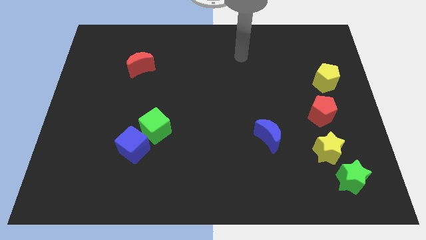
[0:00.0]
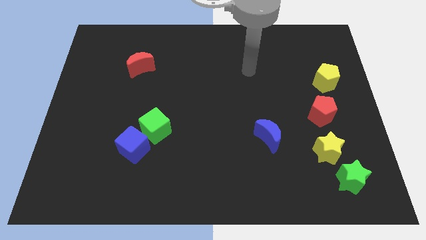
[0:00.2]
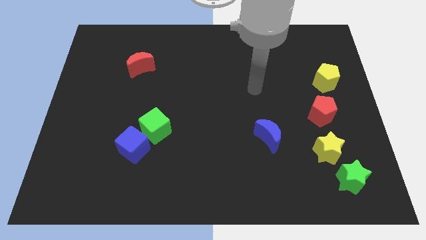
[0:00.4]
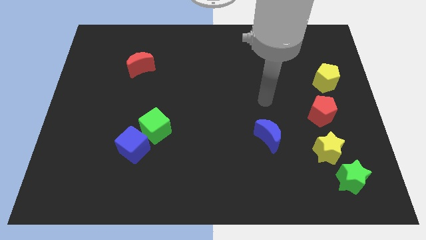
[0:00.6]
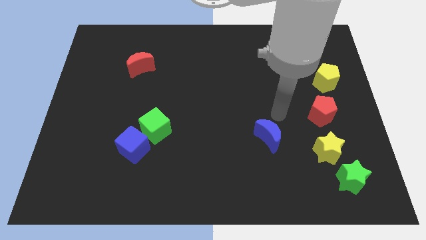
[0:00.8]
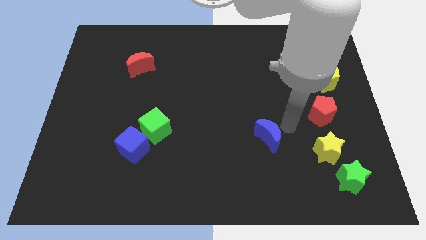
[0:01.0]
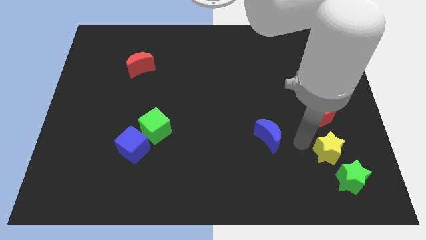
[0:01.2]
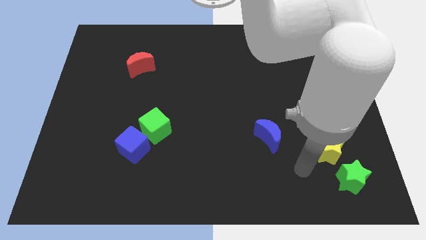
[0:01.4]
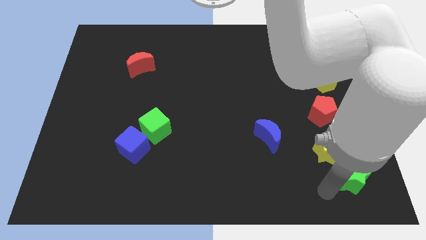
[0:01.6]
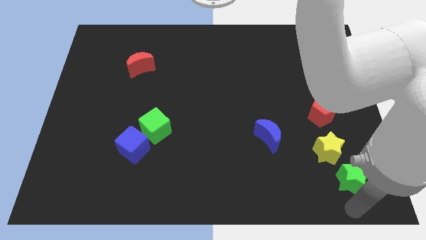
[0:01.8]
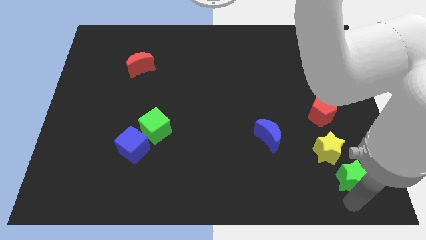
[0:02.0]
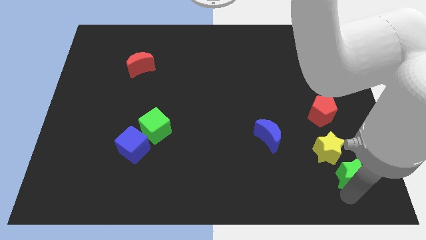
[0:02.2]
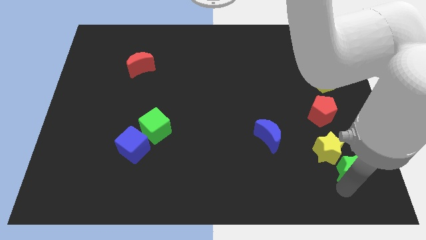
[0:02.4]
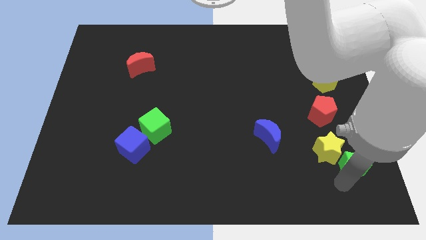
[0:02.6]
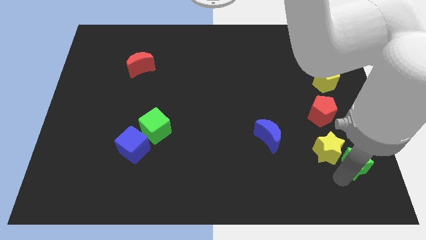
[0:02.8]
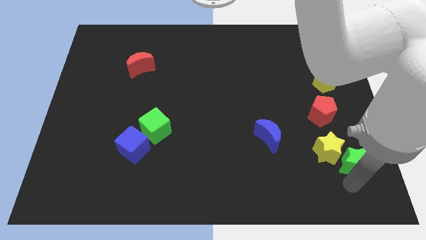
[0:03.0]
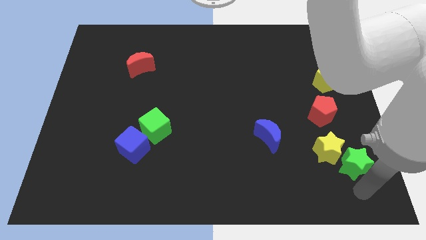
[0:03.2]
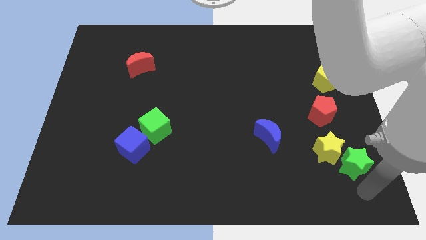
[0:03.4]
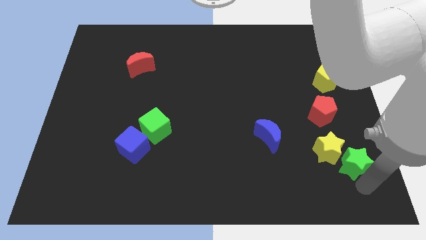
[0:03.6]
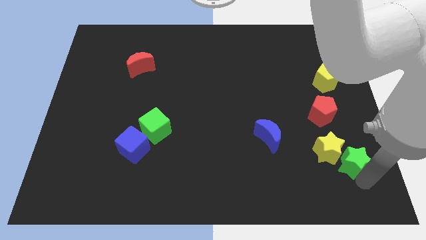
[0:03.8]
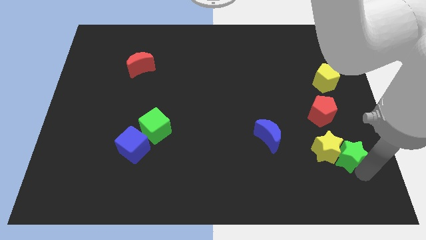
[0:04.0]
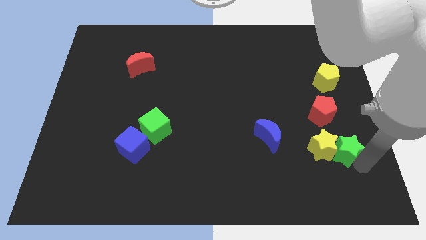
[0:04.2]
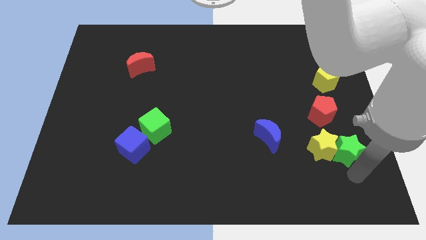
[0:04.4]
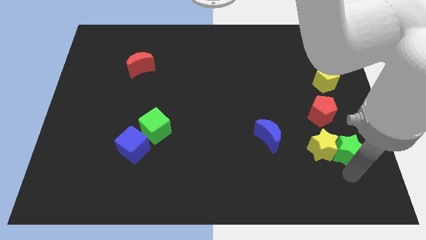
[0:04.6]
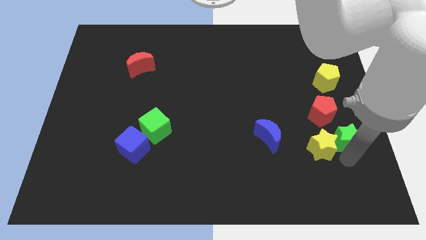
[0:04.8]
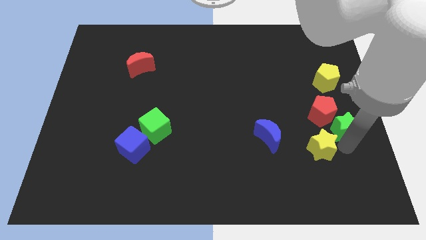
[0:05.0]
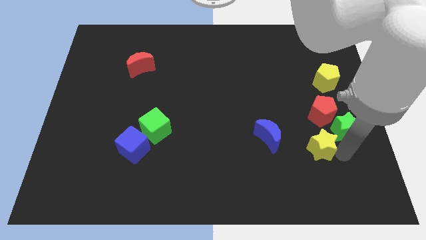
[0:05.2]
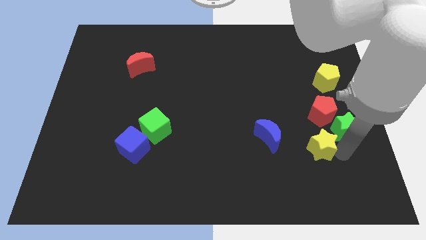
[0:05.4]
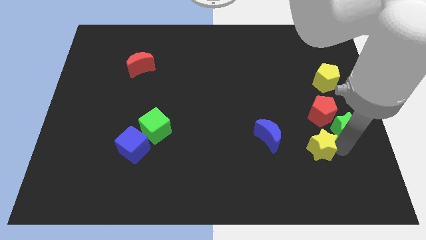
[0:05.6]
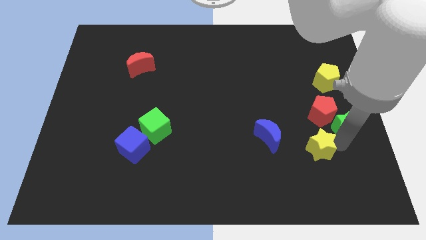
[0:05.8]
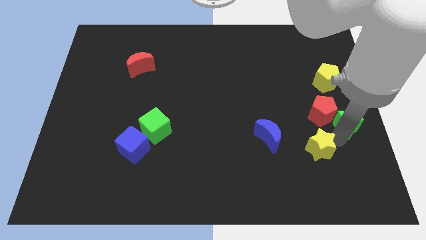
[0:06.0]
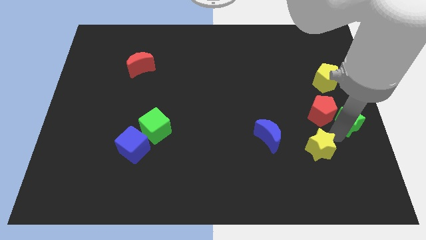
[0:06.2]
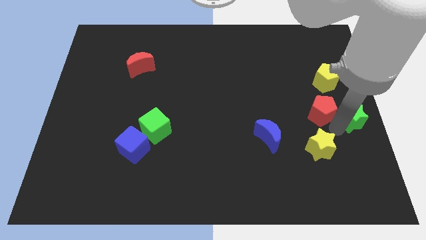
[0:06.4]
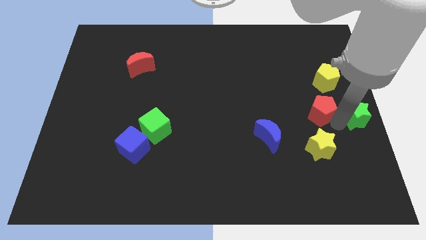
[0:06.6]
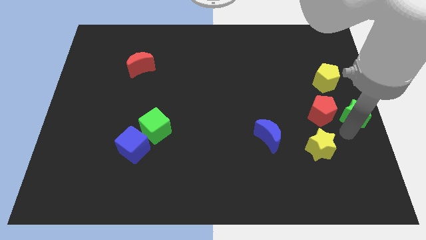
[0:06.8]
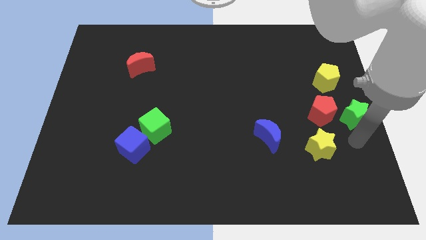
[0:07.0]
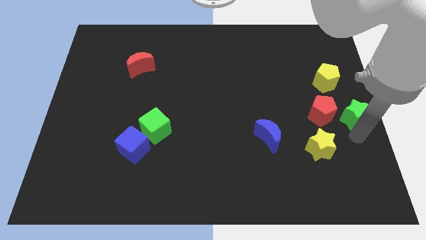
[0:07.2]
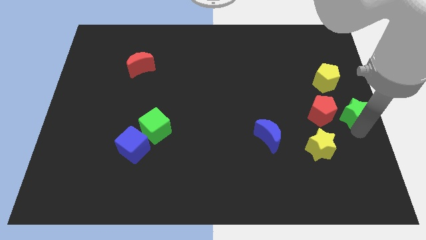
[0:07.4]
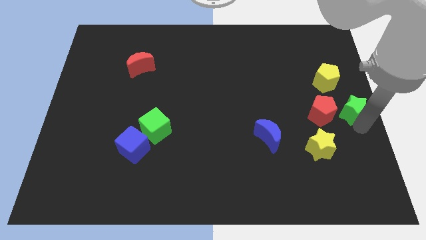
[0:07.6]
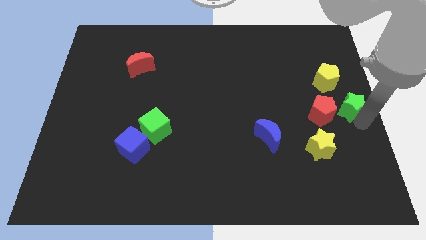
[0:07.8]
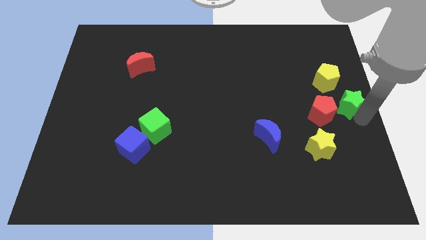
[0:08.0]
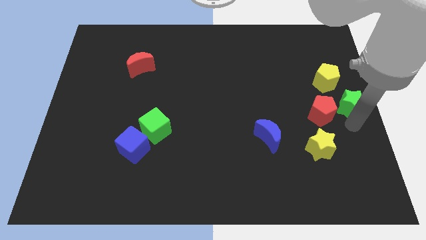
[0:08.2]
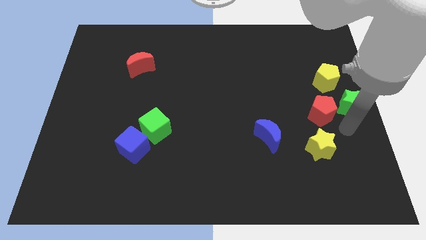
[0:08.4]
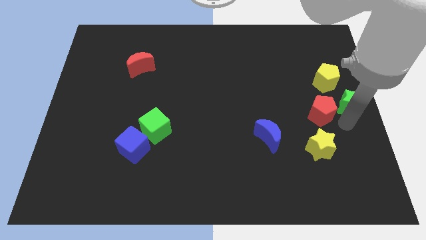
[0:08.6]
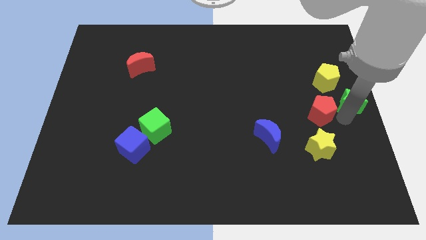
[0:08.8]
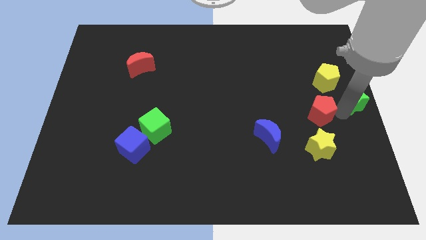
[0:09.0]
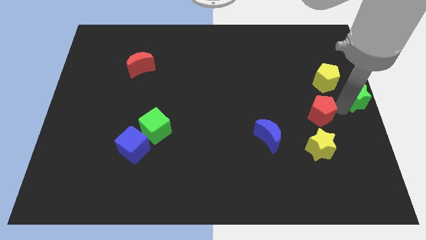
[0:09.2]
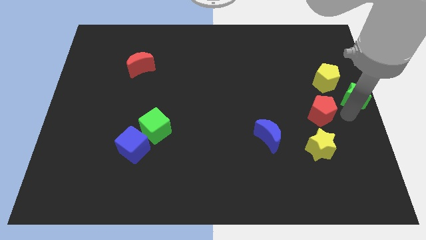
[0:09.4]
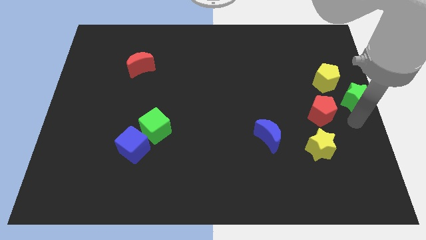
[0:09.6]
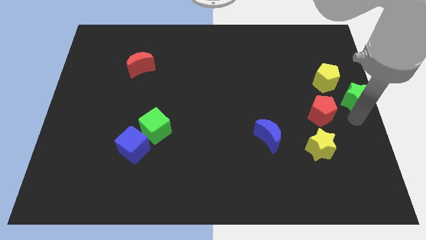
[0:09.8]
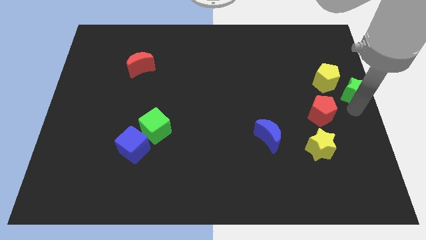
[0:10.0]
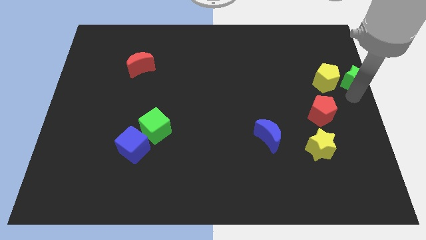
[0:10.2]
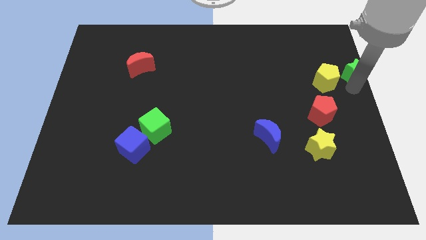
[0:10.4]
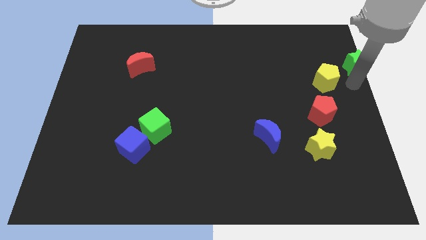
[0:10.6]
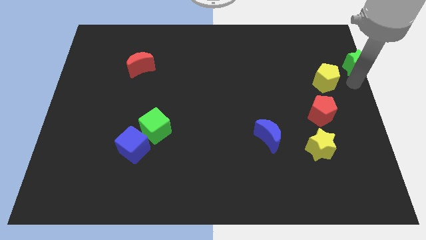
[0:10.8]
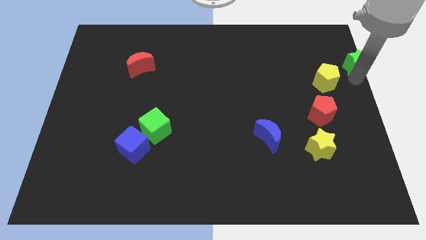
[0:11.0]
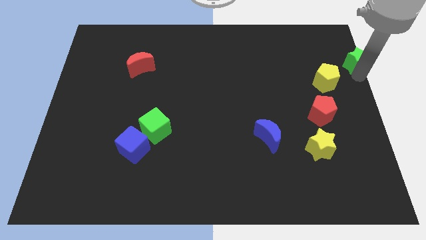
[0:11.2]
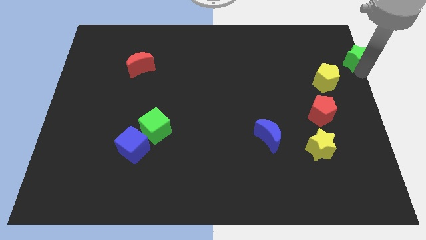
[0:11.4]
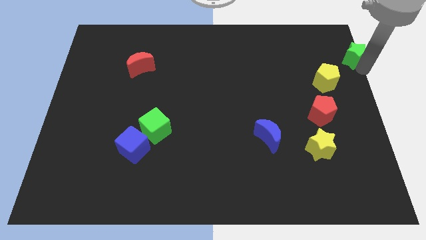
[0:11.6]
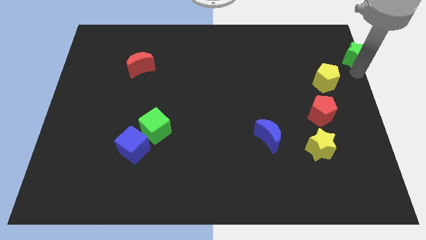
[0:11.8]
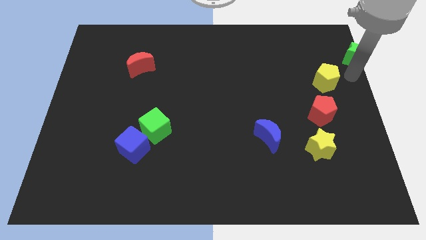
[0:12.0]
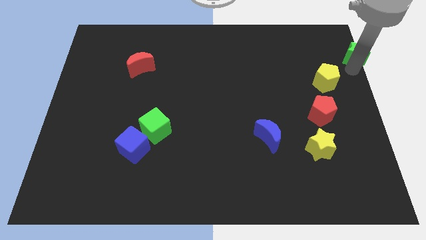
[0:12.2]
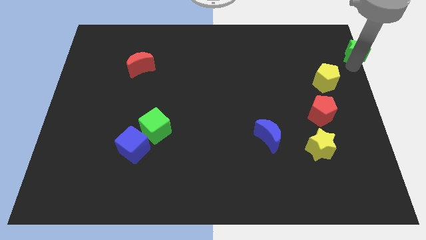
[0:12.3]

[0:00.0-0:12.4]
slide the green star to the upper right corner
